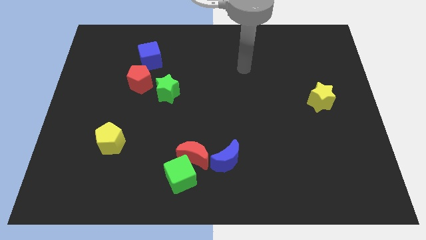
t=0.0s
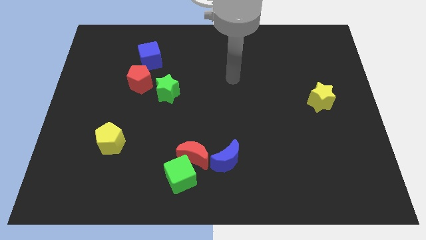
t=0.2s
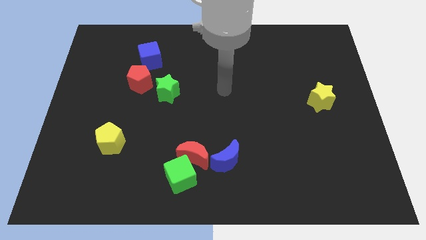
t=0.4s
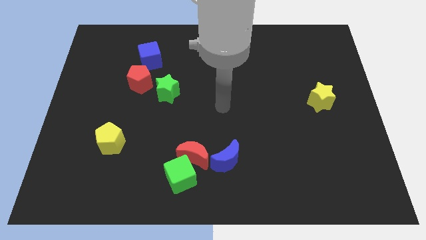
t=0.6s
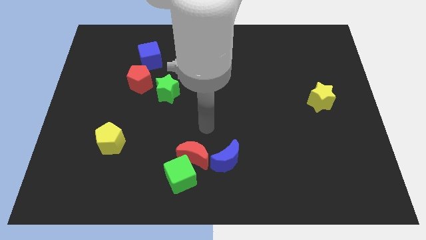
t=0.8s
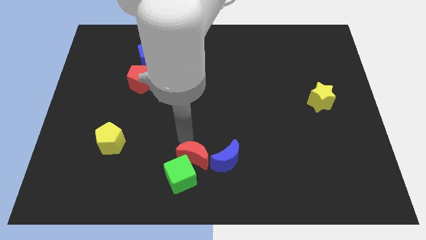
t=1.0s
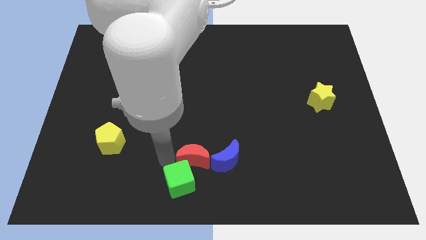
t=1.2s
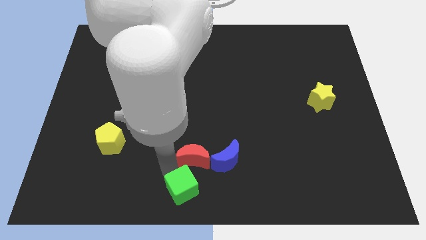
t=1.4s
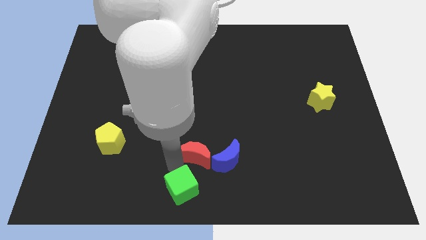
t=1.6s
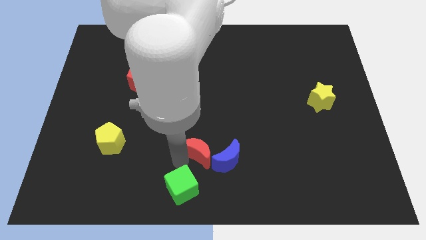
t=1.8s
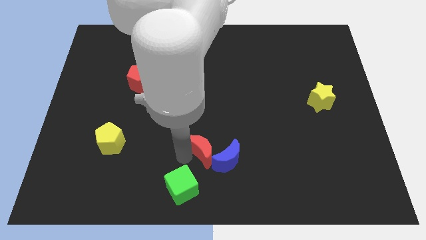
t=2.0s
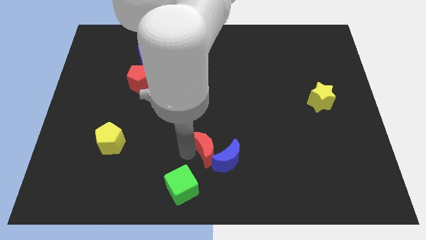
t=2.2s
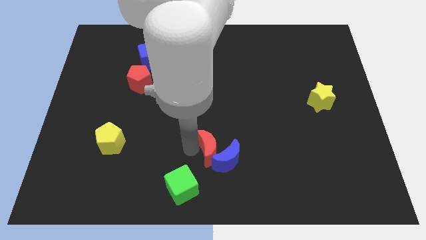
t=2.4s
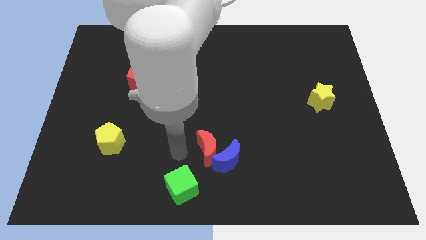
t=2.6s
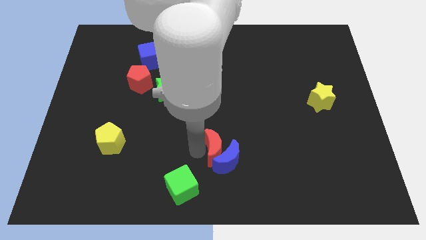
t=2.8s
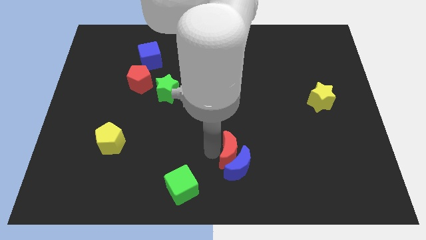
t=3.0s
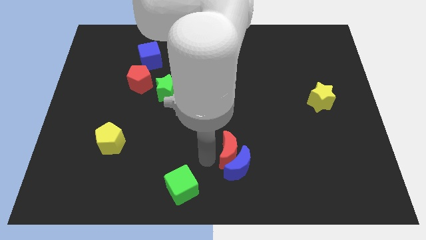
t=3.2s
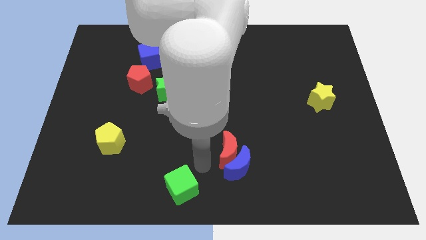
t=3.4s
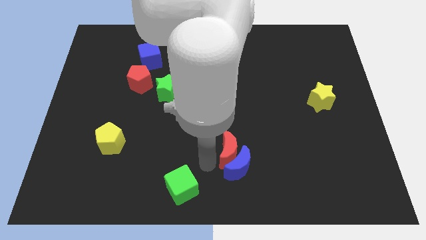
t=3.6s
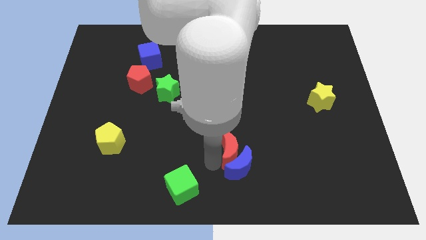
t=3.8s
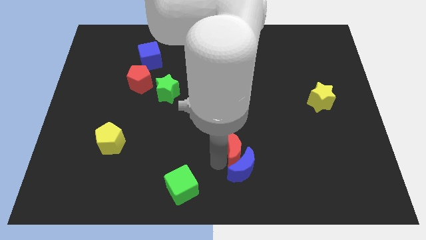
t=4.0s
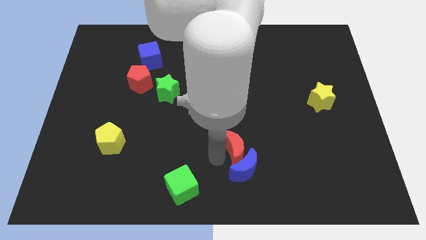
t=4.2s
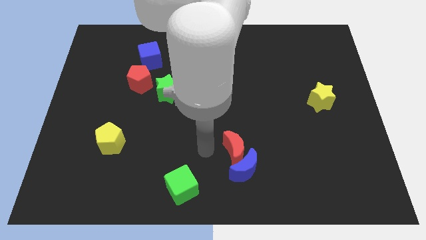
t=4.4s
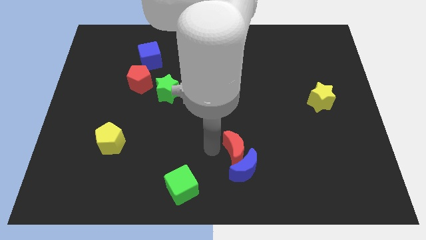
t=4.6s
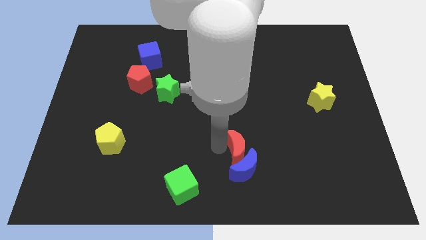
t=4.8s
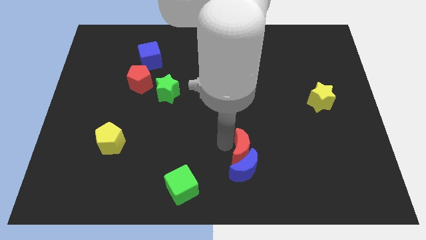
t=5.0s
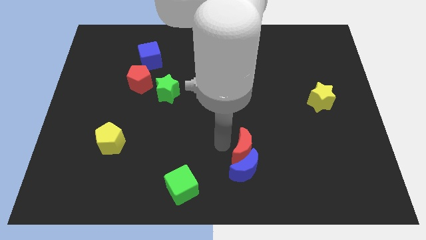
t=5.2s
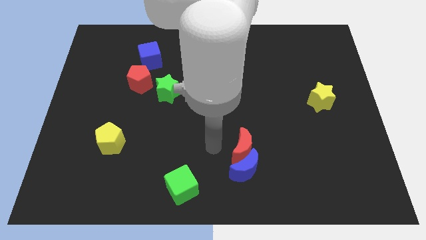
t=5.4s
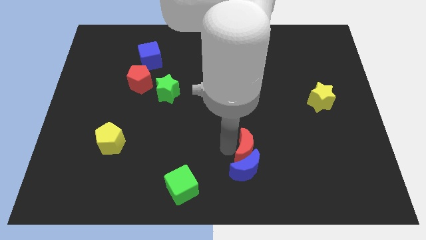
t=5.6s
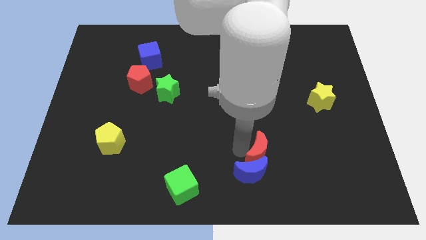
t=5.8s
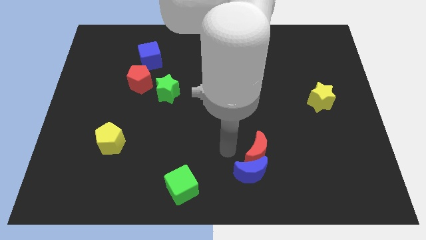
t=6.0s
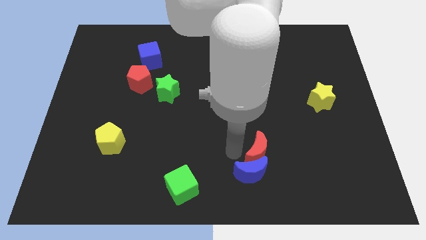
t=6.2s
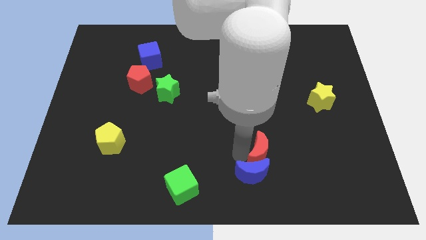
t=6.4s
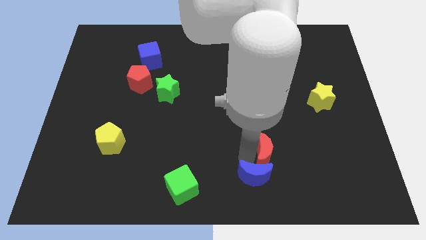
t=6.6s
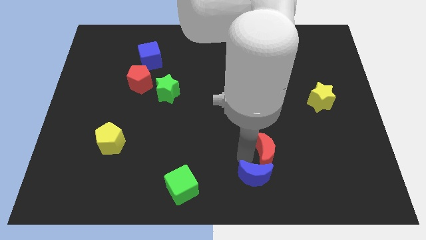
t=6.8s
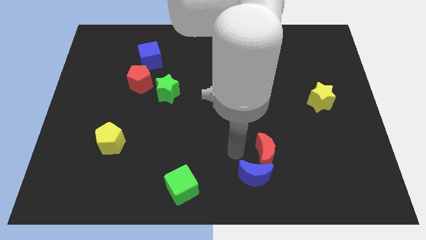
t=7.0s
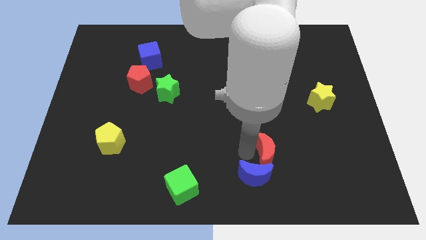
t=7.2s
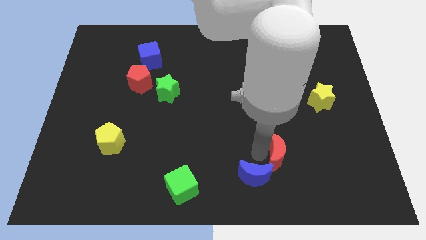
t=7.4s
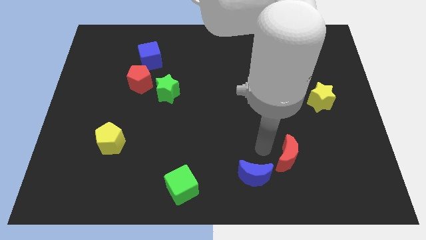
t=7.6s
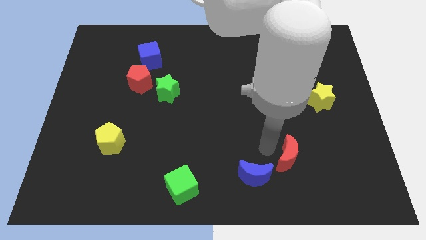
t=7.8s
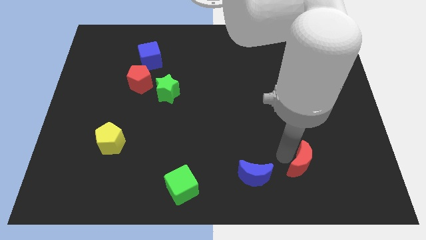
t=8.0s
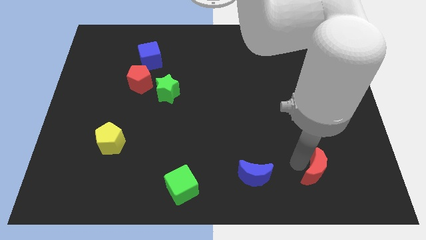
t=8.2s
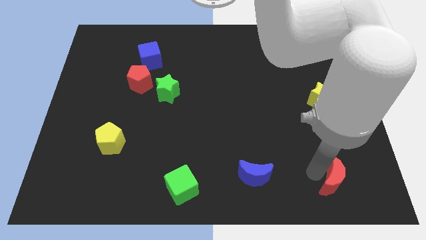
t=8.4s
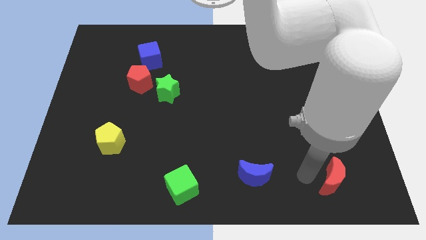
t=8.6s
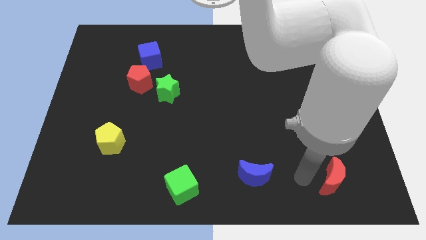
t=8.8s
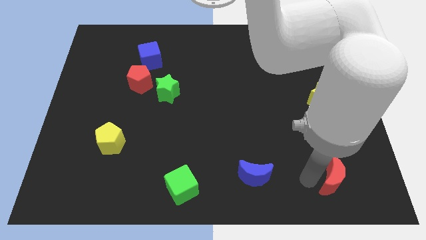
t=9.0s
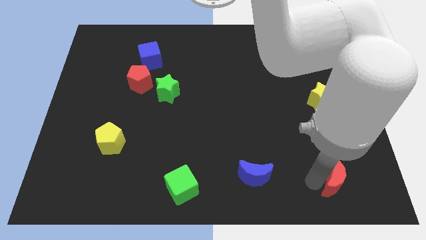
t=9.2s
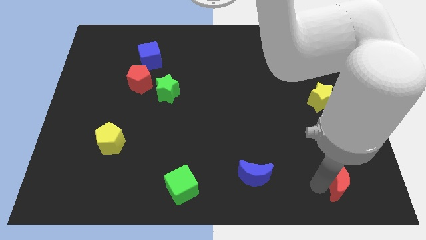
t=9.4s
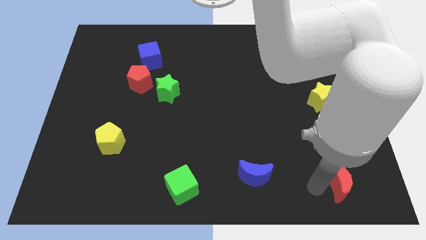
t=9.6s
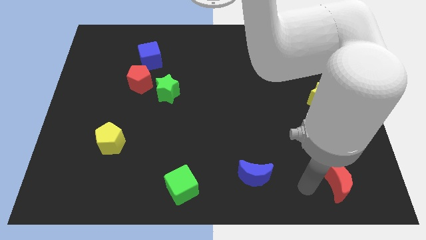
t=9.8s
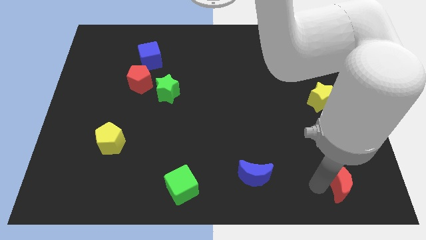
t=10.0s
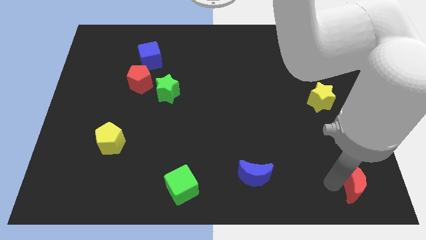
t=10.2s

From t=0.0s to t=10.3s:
push the red moon to the bottom right

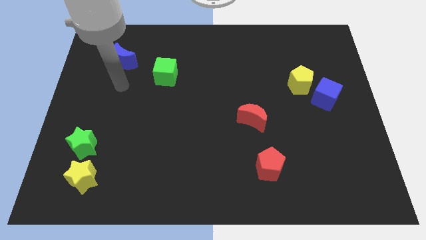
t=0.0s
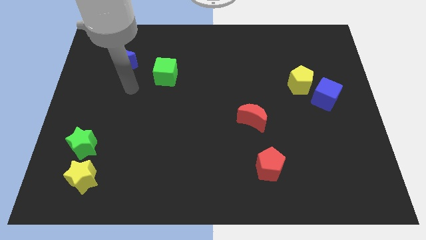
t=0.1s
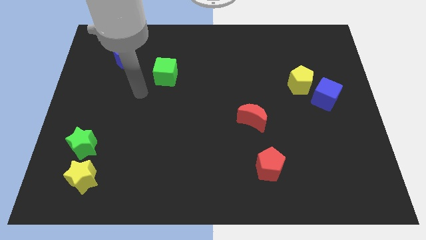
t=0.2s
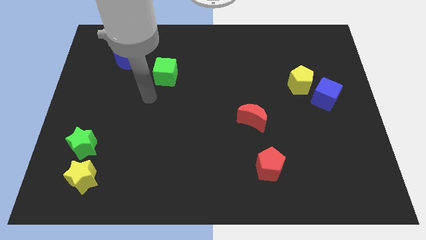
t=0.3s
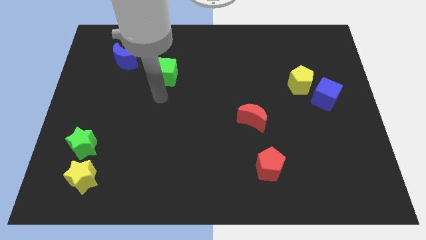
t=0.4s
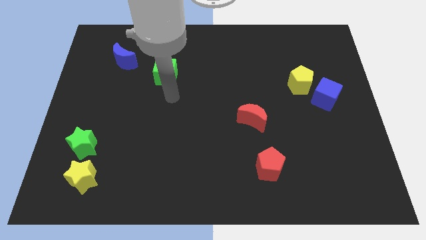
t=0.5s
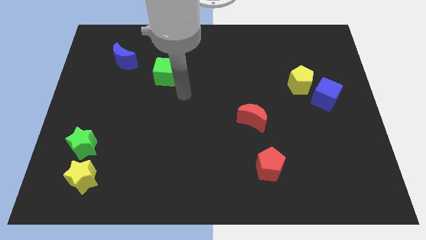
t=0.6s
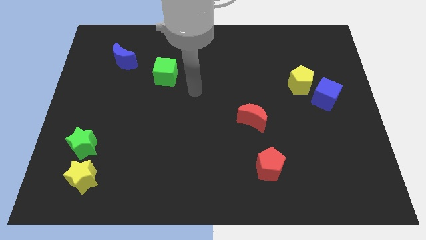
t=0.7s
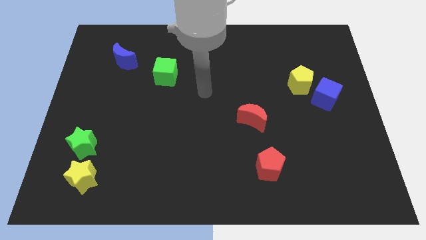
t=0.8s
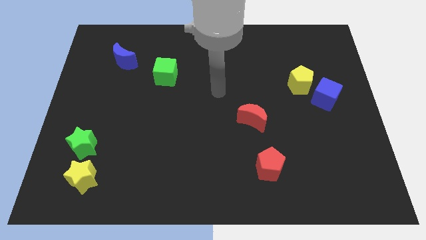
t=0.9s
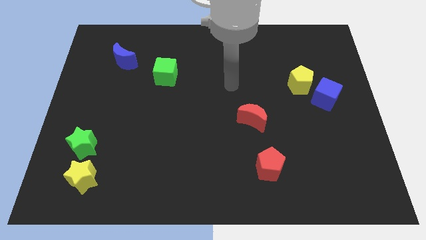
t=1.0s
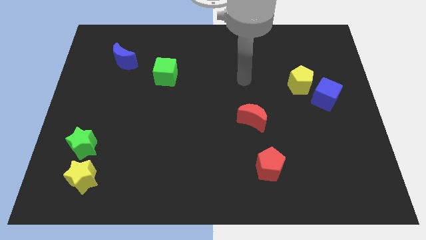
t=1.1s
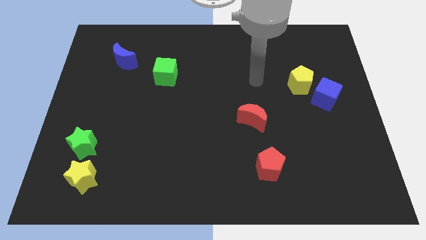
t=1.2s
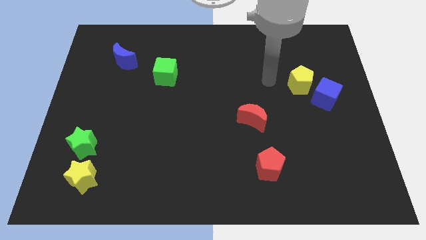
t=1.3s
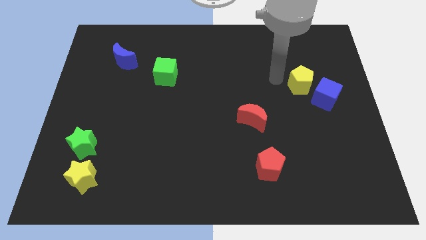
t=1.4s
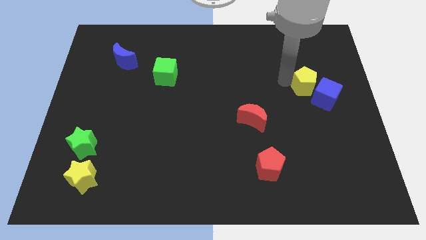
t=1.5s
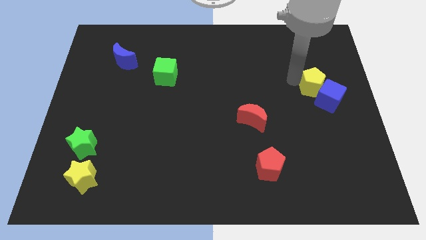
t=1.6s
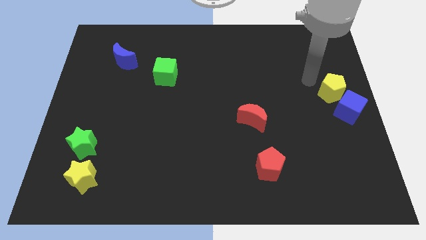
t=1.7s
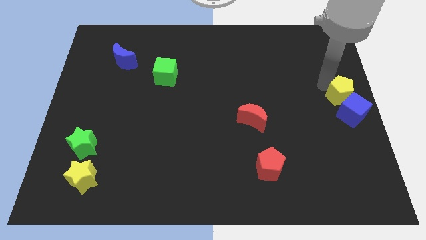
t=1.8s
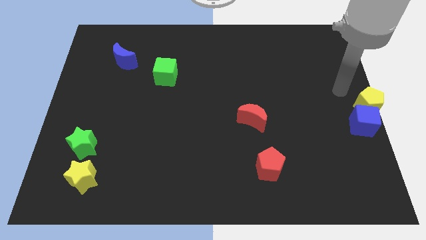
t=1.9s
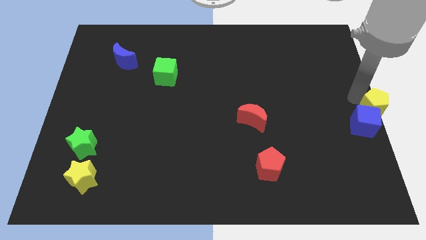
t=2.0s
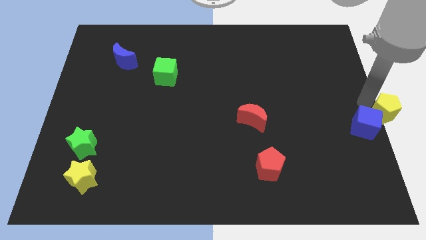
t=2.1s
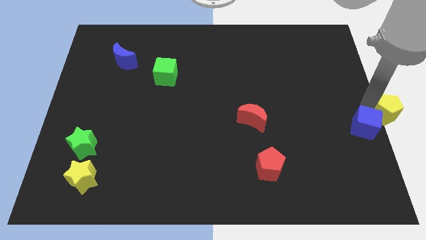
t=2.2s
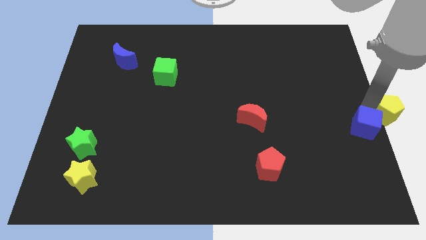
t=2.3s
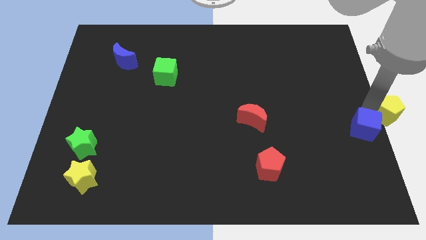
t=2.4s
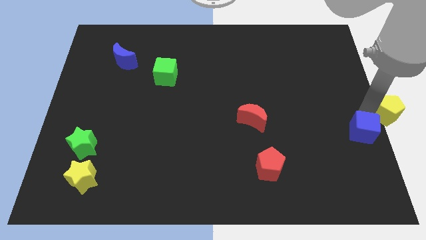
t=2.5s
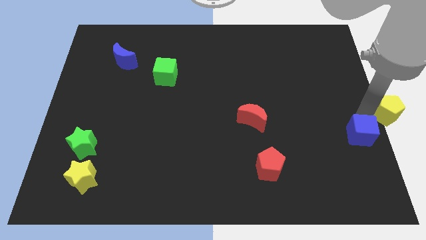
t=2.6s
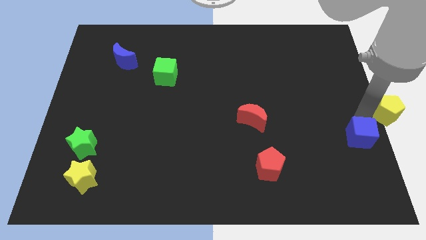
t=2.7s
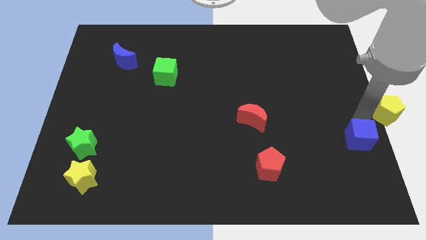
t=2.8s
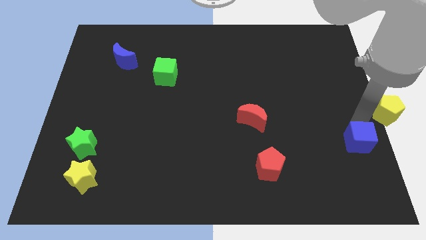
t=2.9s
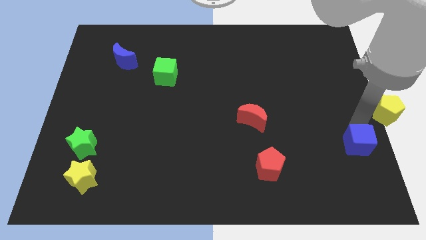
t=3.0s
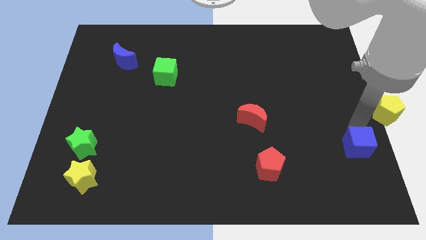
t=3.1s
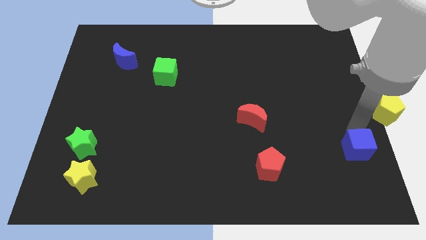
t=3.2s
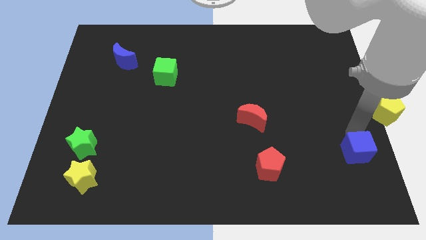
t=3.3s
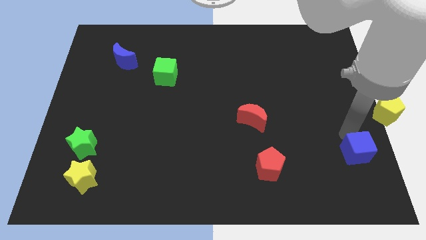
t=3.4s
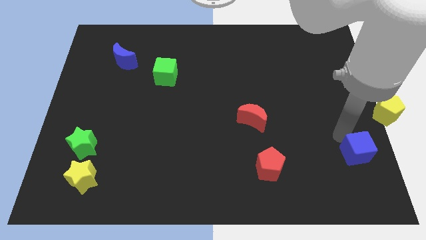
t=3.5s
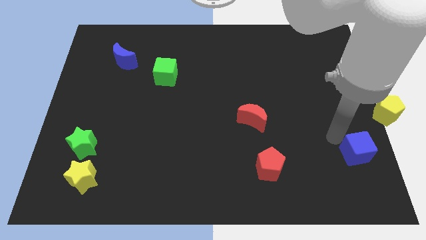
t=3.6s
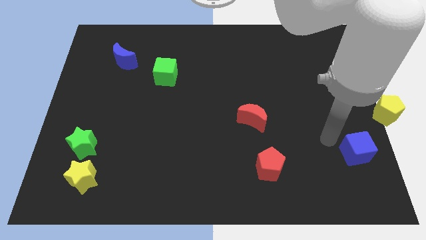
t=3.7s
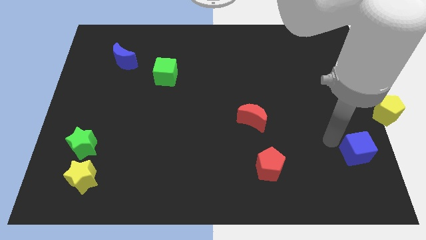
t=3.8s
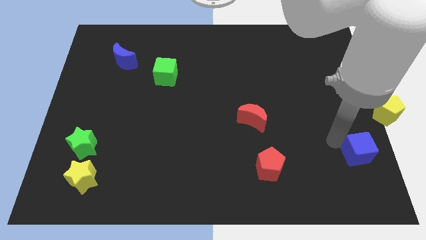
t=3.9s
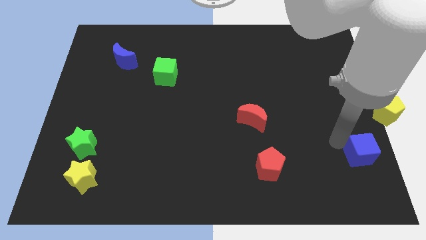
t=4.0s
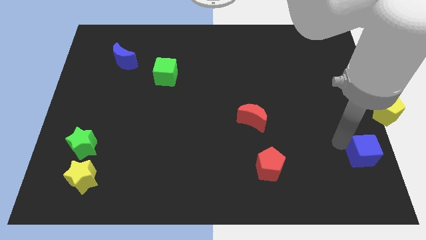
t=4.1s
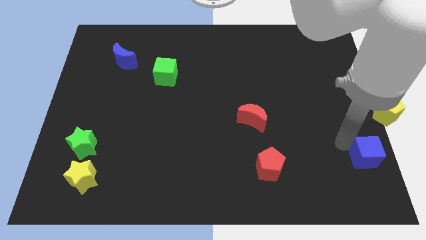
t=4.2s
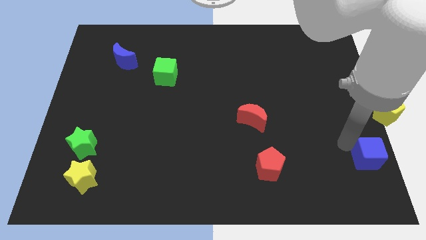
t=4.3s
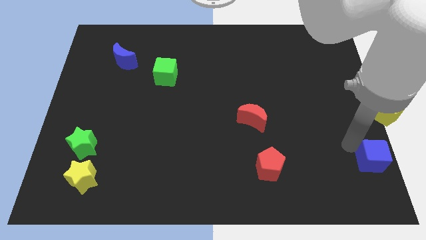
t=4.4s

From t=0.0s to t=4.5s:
push the blue cube to the lower right corner
